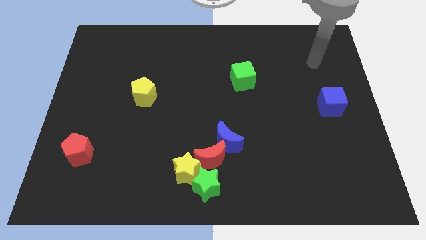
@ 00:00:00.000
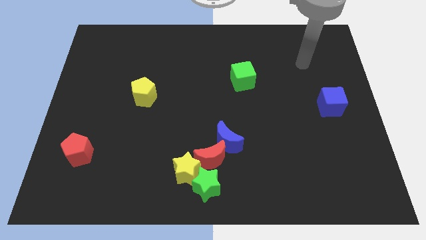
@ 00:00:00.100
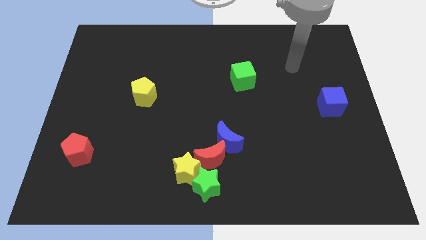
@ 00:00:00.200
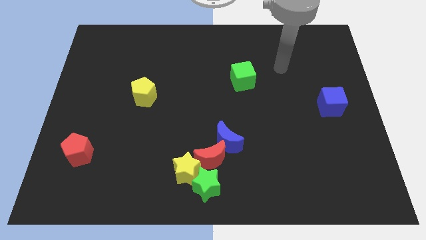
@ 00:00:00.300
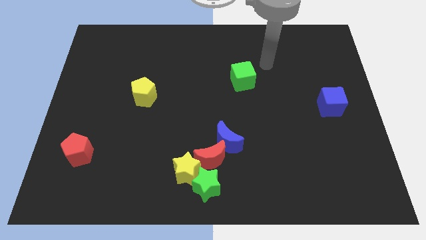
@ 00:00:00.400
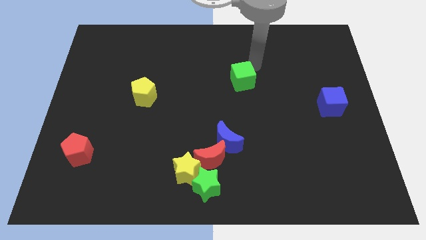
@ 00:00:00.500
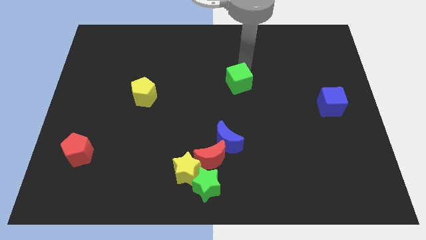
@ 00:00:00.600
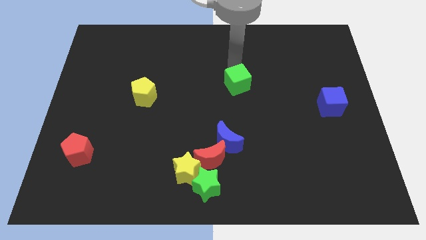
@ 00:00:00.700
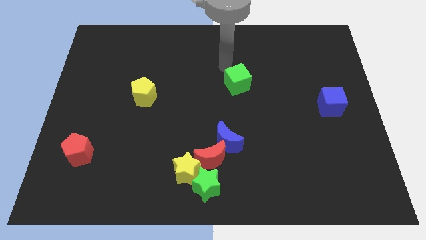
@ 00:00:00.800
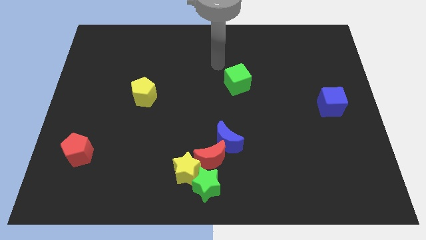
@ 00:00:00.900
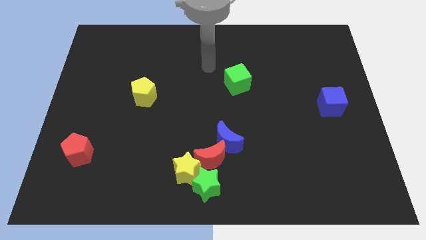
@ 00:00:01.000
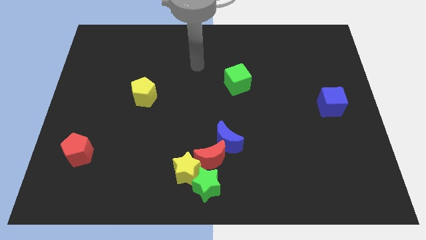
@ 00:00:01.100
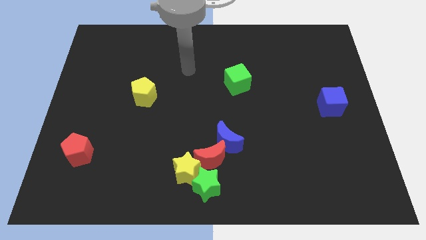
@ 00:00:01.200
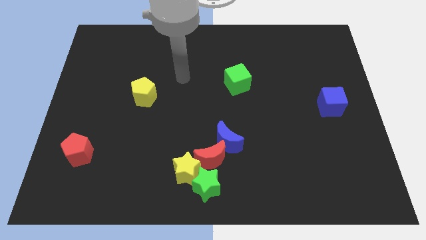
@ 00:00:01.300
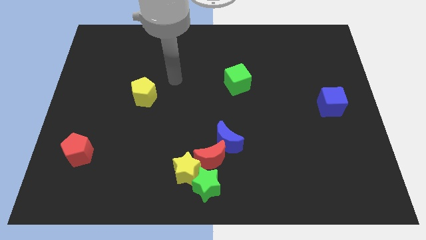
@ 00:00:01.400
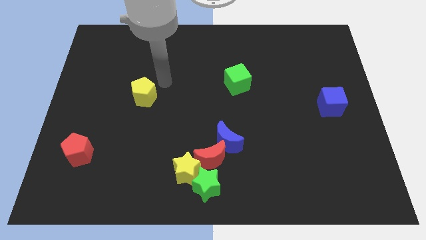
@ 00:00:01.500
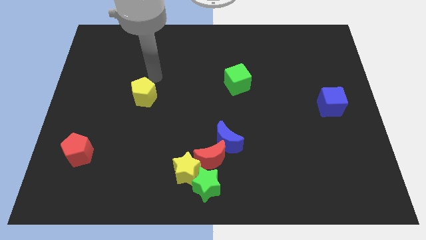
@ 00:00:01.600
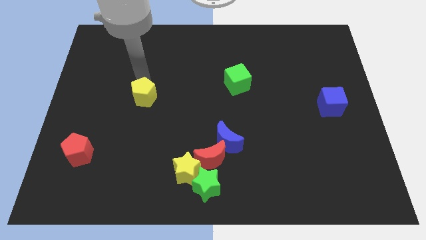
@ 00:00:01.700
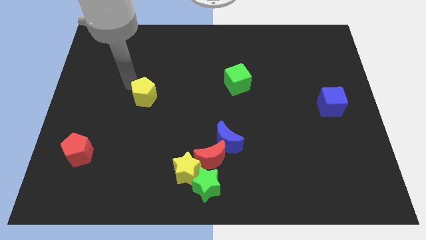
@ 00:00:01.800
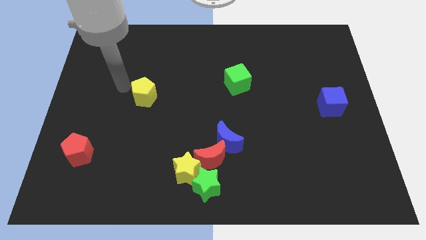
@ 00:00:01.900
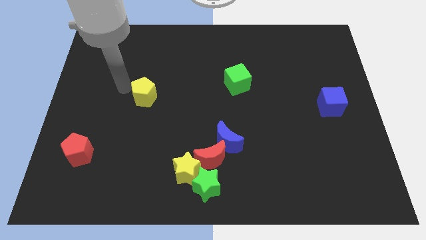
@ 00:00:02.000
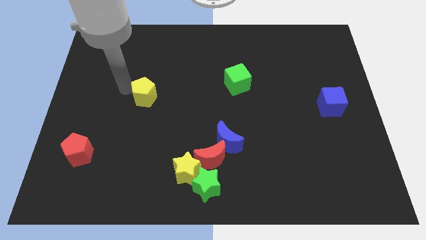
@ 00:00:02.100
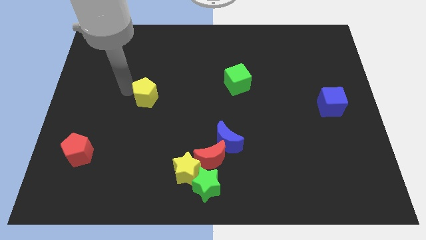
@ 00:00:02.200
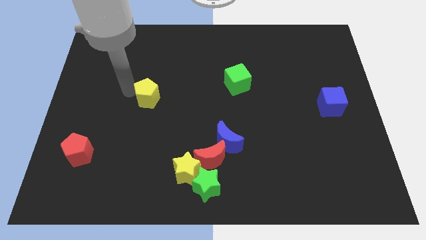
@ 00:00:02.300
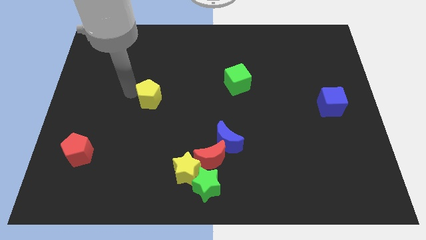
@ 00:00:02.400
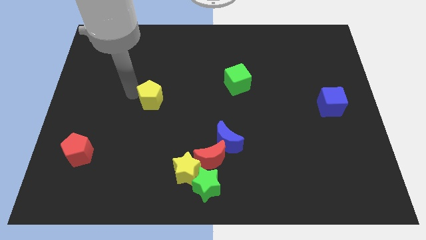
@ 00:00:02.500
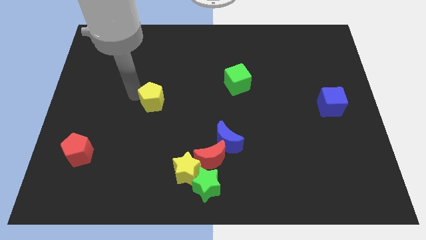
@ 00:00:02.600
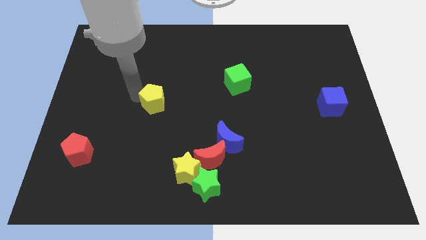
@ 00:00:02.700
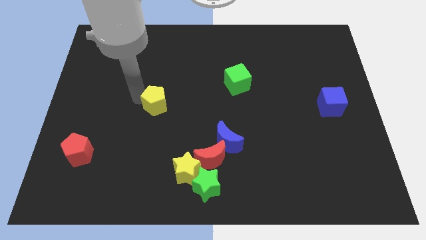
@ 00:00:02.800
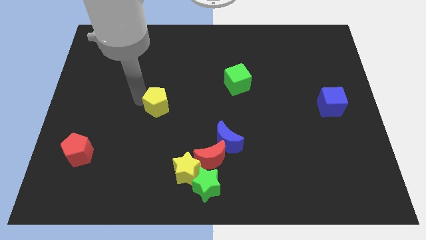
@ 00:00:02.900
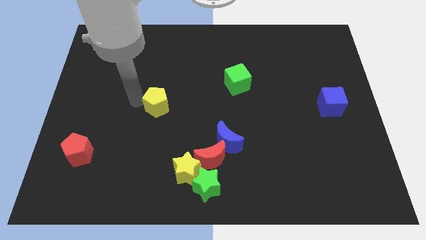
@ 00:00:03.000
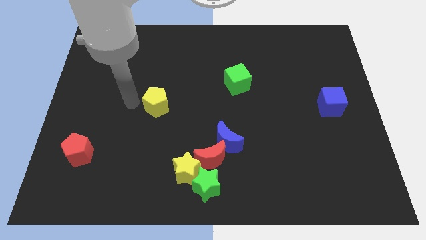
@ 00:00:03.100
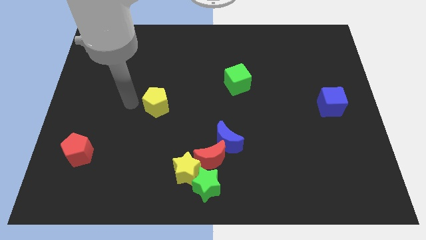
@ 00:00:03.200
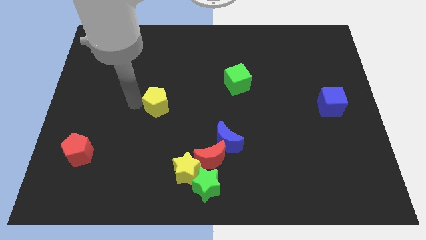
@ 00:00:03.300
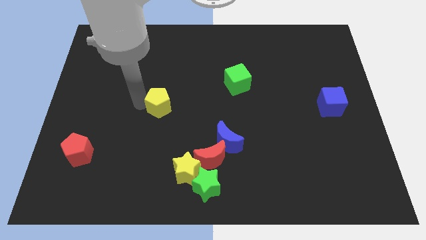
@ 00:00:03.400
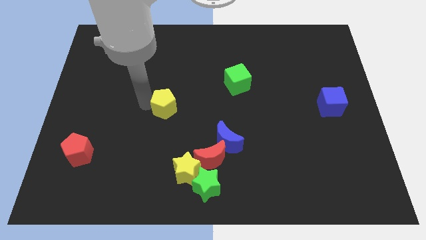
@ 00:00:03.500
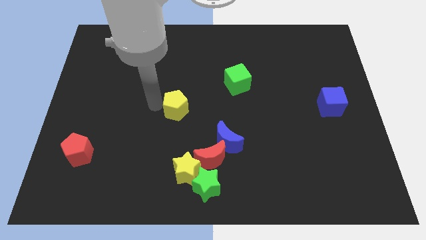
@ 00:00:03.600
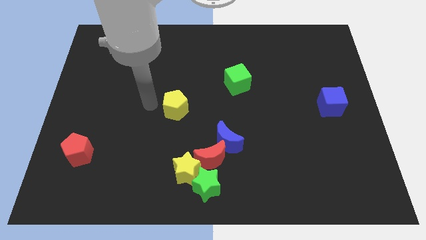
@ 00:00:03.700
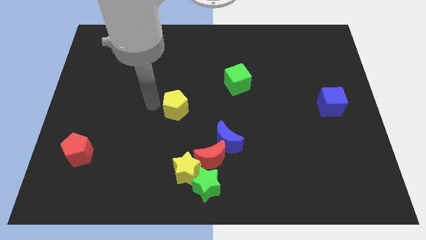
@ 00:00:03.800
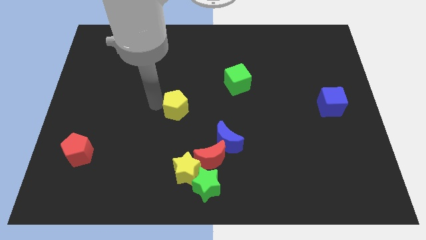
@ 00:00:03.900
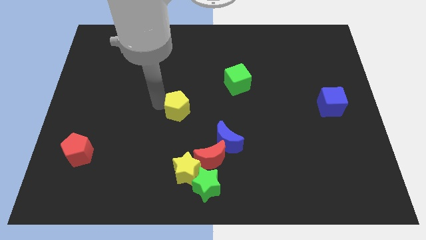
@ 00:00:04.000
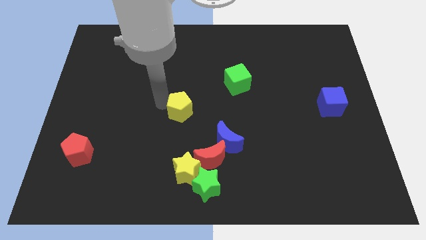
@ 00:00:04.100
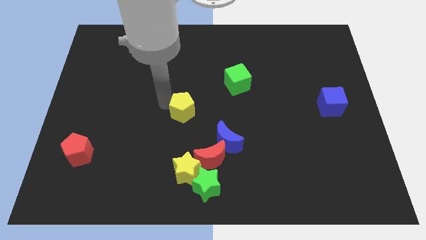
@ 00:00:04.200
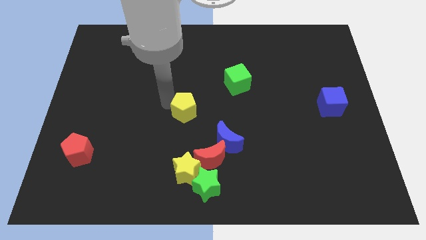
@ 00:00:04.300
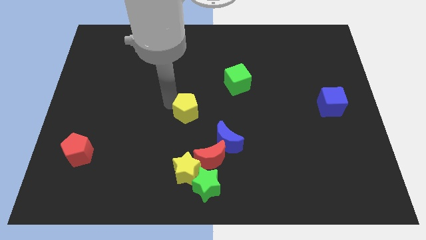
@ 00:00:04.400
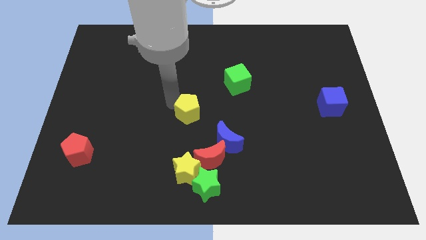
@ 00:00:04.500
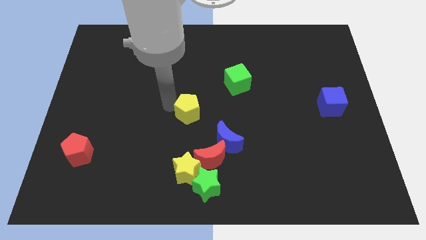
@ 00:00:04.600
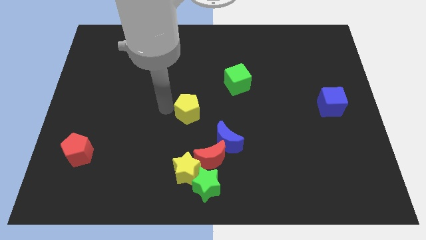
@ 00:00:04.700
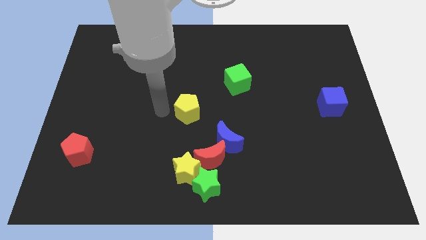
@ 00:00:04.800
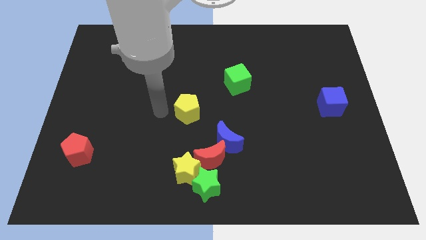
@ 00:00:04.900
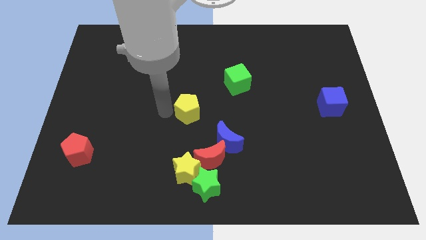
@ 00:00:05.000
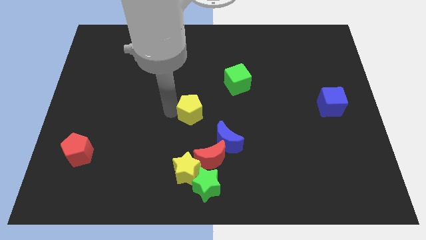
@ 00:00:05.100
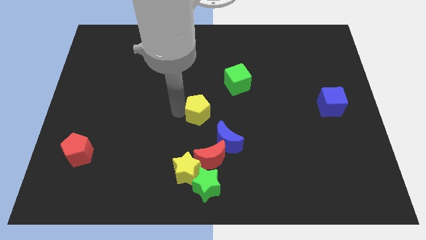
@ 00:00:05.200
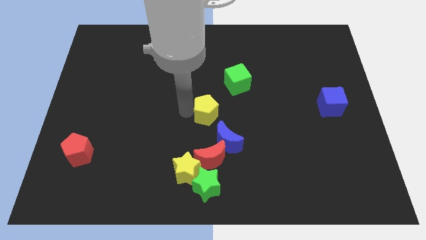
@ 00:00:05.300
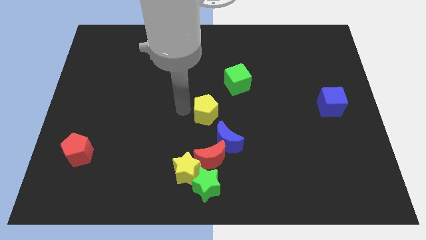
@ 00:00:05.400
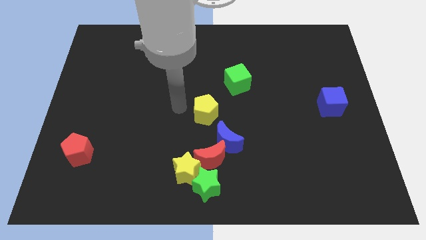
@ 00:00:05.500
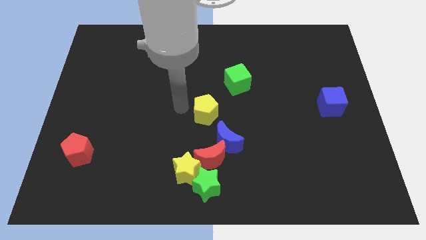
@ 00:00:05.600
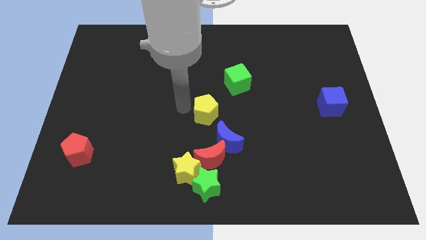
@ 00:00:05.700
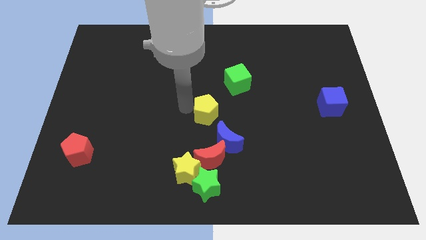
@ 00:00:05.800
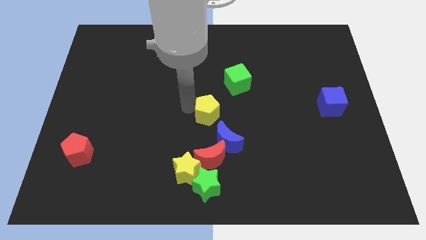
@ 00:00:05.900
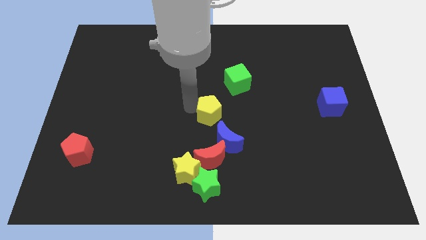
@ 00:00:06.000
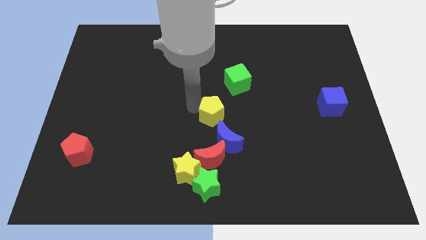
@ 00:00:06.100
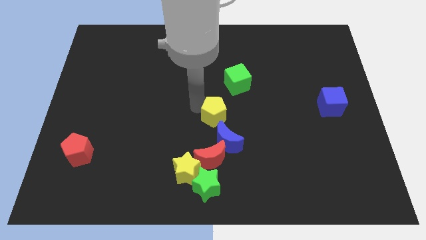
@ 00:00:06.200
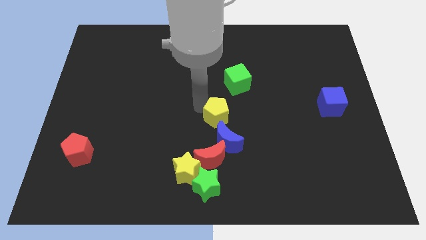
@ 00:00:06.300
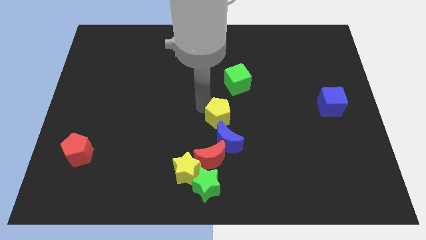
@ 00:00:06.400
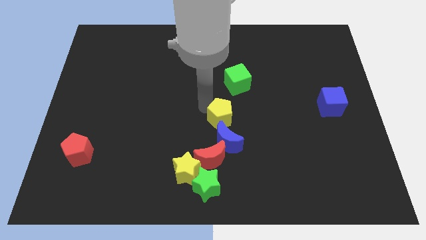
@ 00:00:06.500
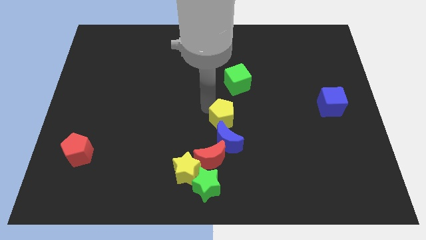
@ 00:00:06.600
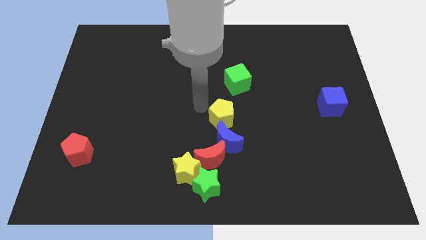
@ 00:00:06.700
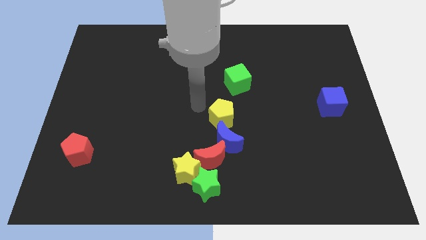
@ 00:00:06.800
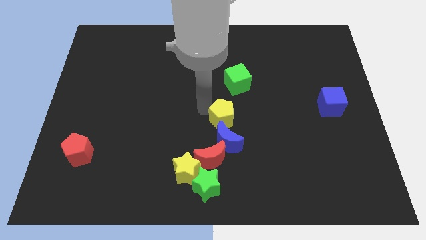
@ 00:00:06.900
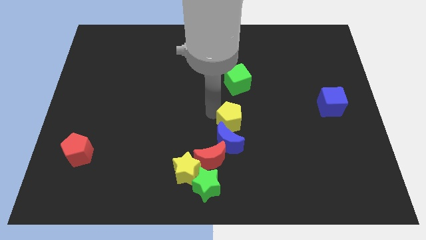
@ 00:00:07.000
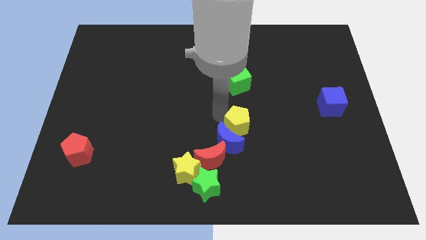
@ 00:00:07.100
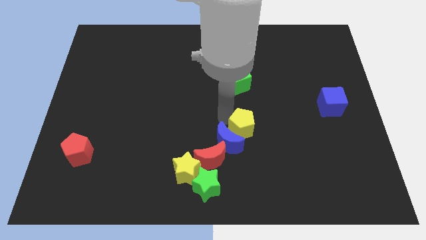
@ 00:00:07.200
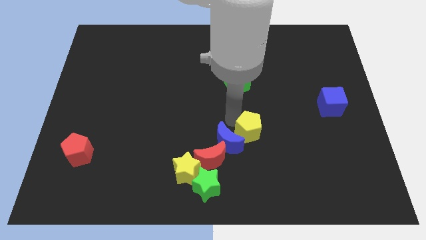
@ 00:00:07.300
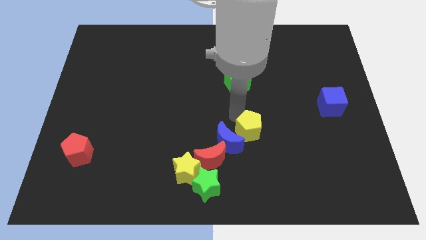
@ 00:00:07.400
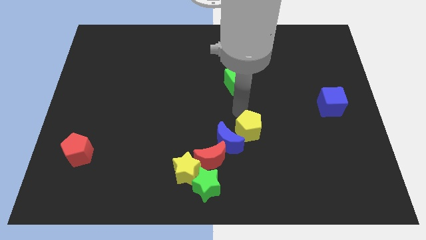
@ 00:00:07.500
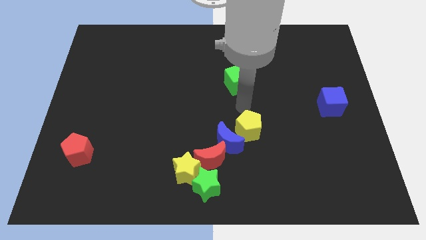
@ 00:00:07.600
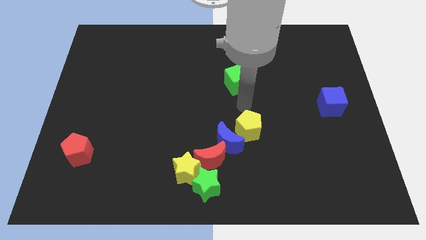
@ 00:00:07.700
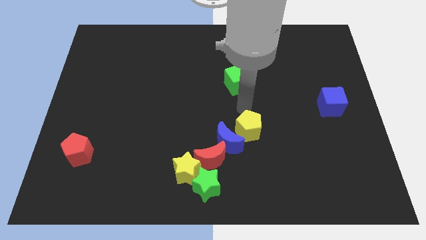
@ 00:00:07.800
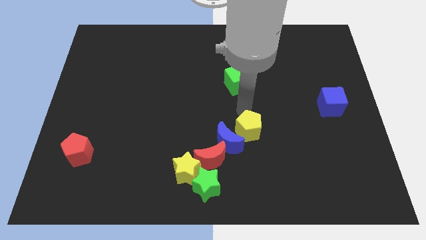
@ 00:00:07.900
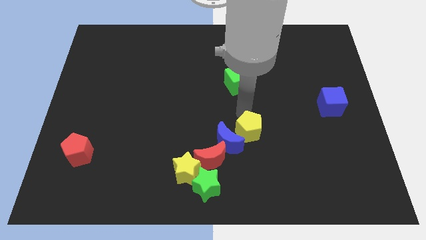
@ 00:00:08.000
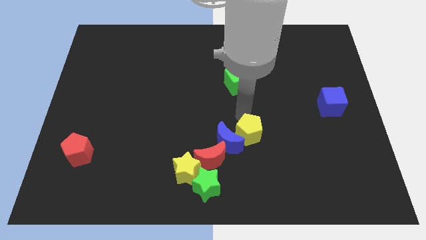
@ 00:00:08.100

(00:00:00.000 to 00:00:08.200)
move the yellow pentagon downwards and to the right
